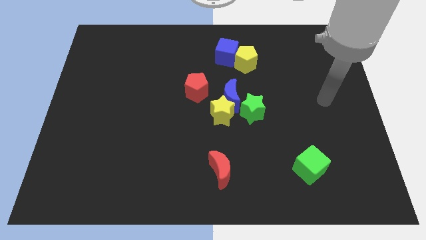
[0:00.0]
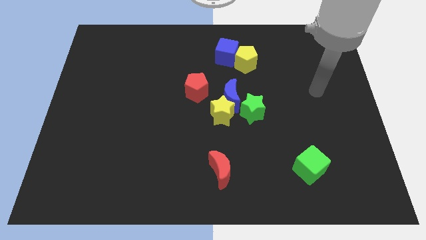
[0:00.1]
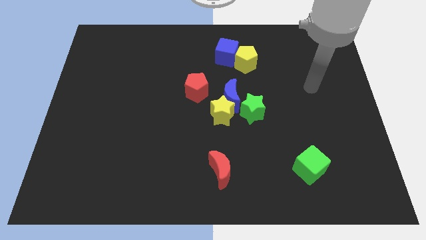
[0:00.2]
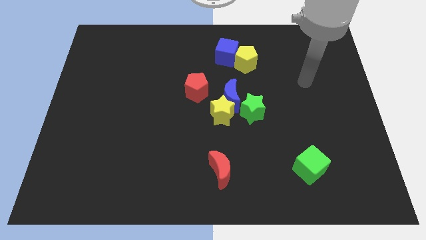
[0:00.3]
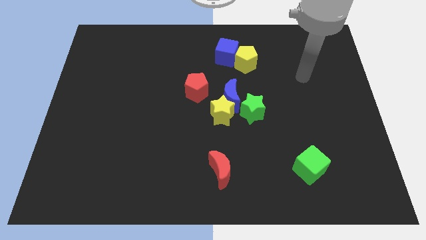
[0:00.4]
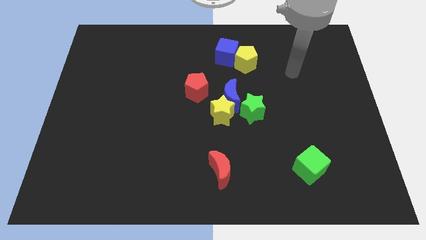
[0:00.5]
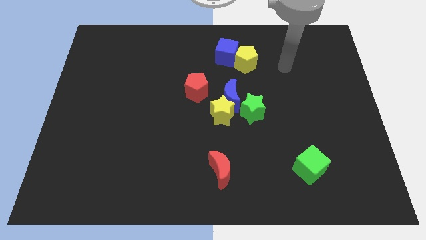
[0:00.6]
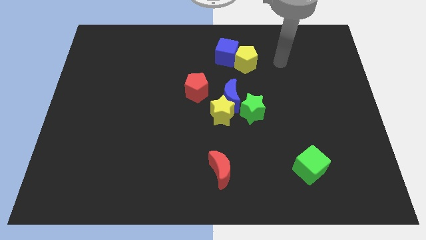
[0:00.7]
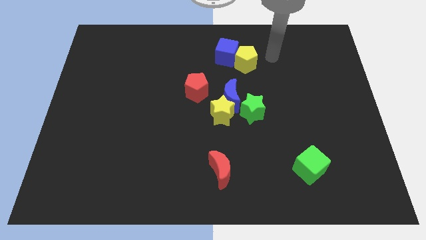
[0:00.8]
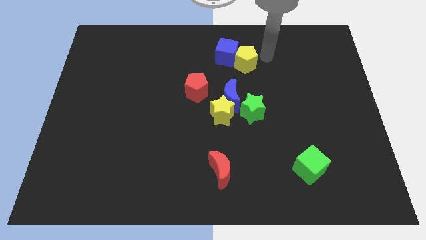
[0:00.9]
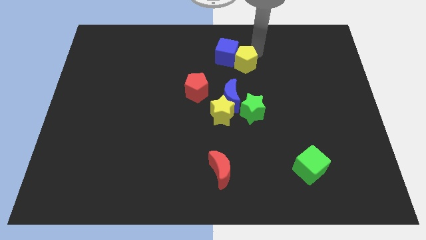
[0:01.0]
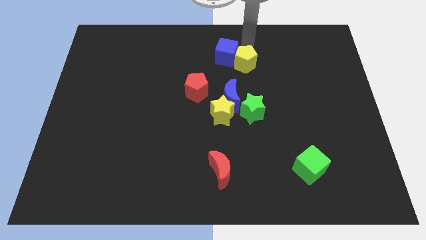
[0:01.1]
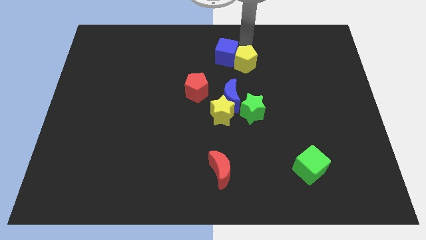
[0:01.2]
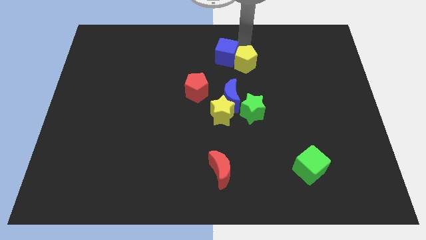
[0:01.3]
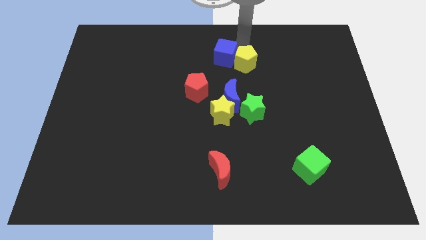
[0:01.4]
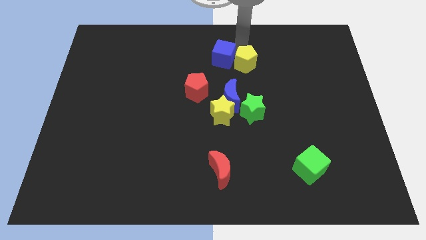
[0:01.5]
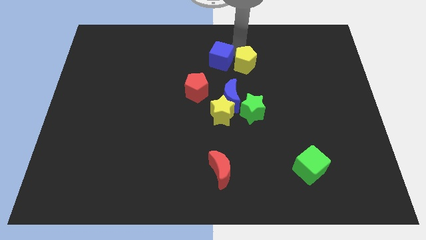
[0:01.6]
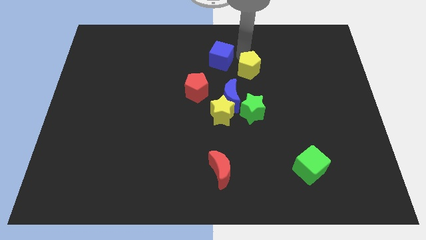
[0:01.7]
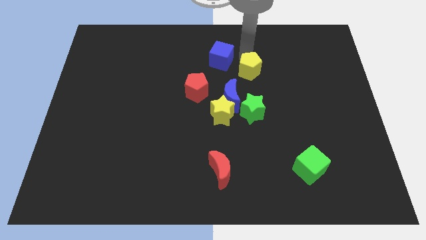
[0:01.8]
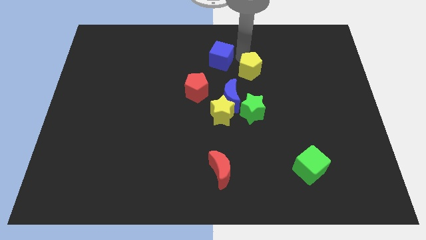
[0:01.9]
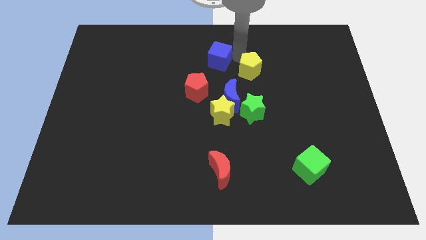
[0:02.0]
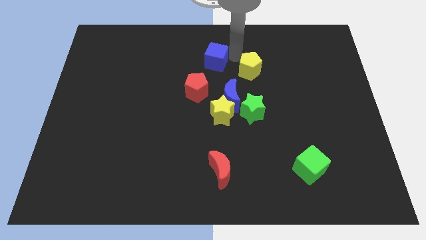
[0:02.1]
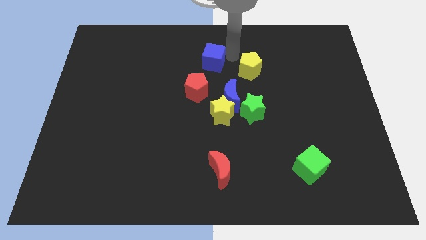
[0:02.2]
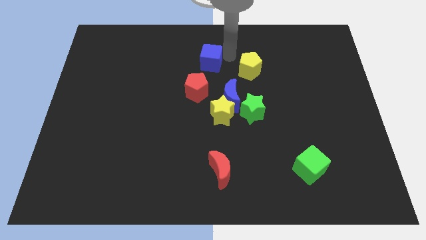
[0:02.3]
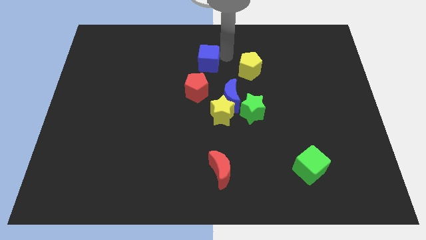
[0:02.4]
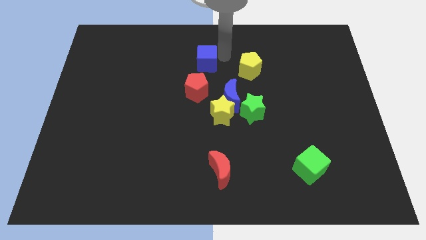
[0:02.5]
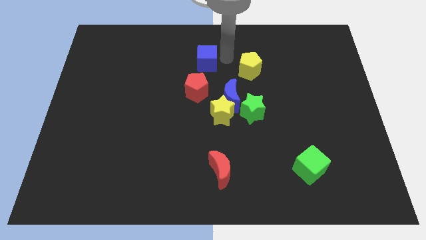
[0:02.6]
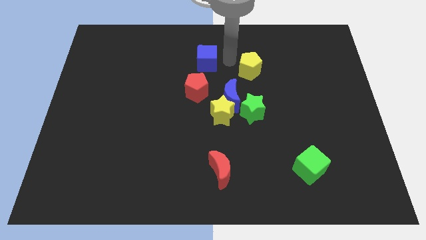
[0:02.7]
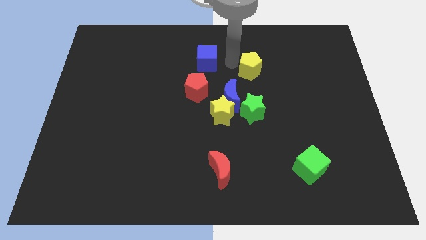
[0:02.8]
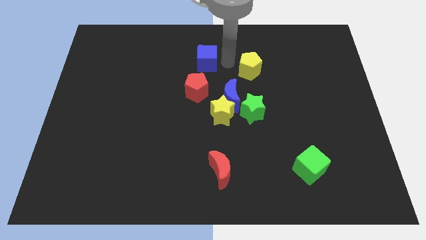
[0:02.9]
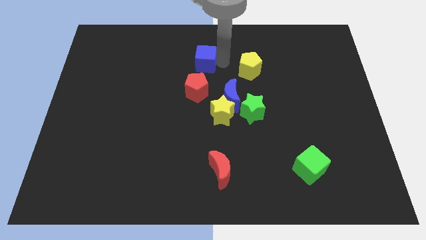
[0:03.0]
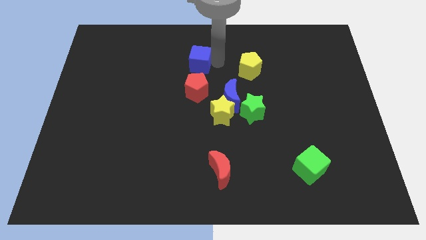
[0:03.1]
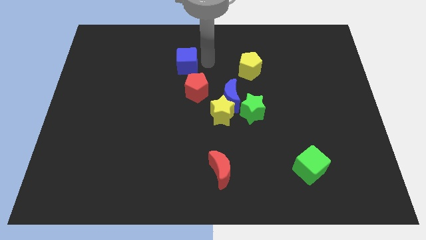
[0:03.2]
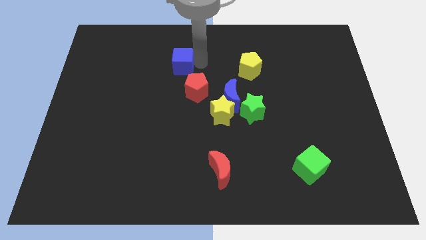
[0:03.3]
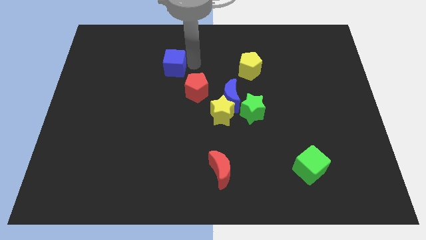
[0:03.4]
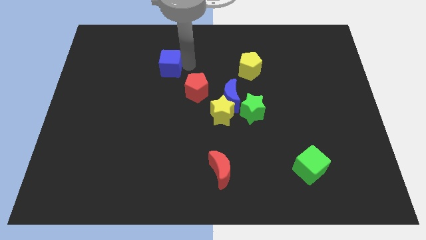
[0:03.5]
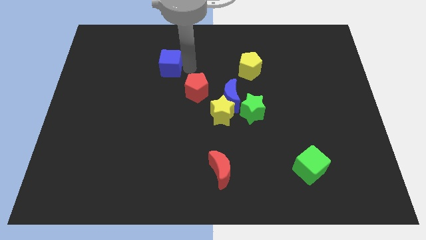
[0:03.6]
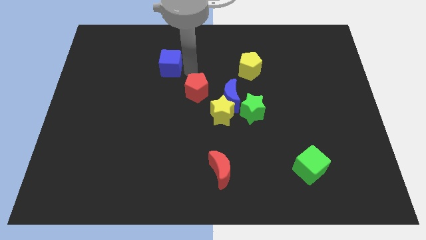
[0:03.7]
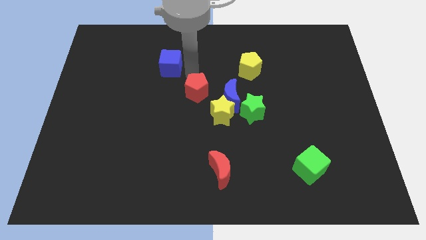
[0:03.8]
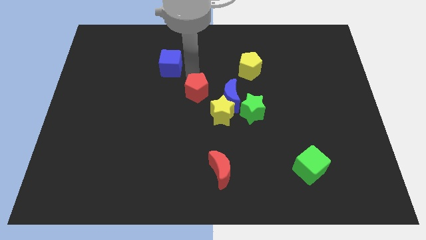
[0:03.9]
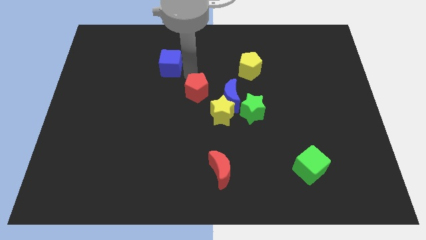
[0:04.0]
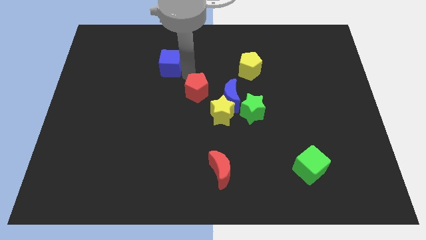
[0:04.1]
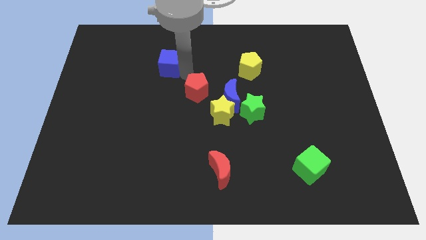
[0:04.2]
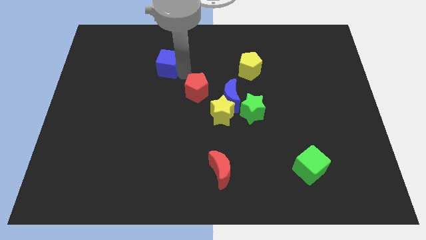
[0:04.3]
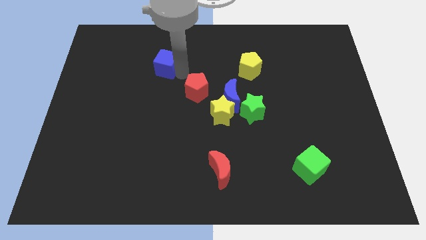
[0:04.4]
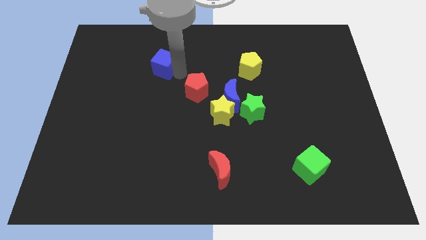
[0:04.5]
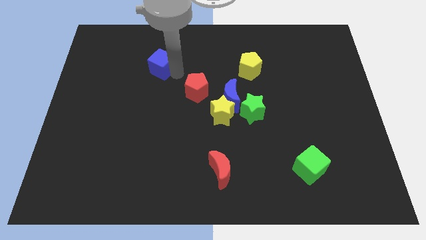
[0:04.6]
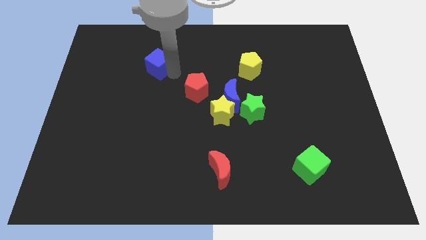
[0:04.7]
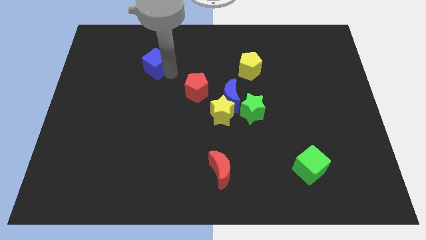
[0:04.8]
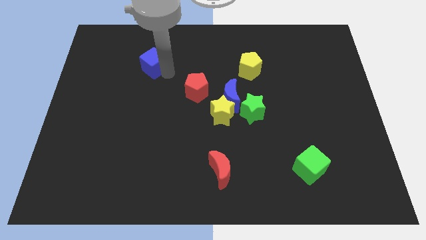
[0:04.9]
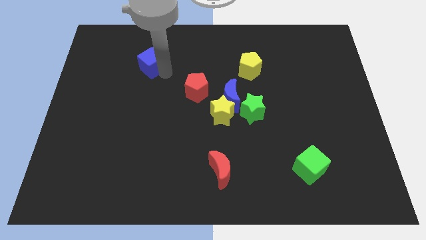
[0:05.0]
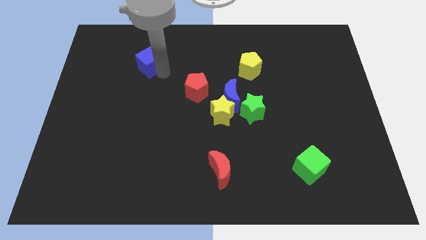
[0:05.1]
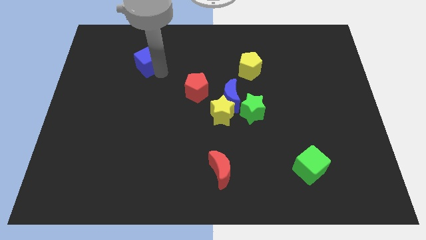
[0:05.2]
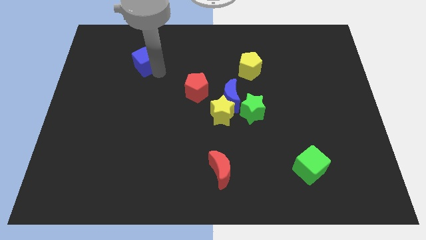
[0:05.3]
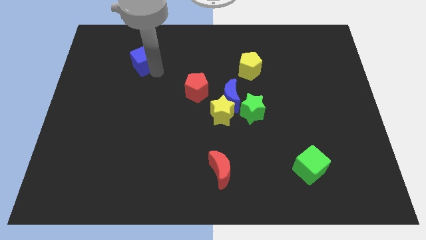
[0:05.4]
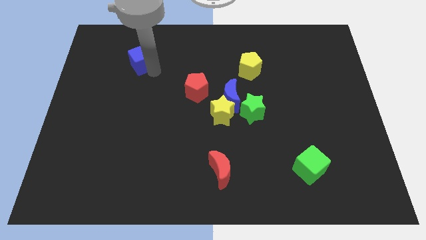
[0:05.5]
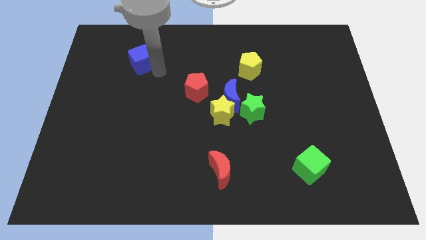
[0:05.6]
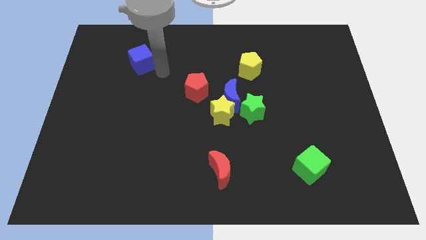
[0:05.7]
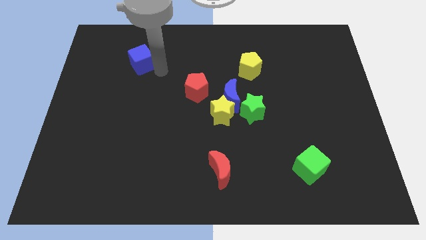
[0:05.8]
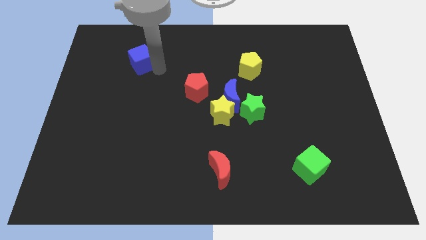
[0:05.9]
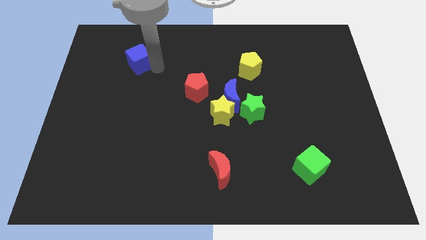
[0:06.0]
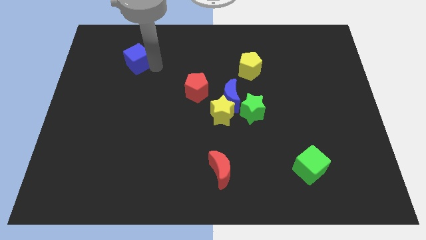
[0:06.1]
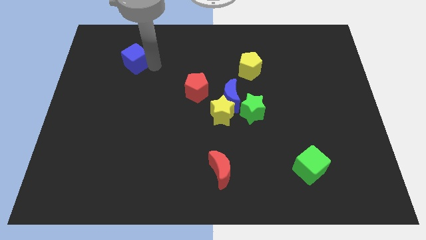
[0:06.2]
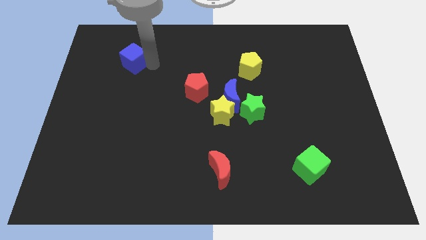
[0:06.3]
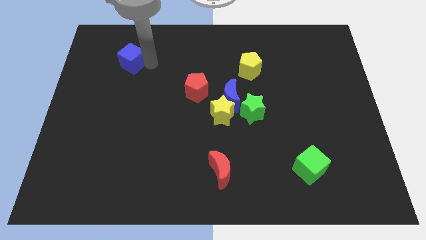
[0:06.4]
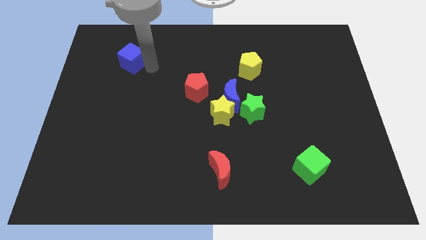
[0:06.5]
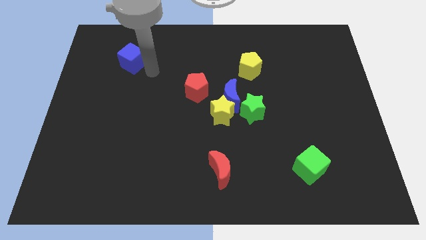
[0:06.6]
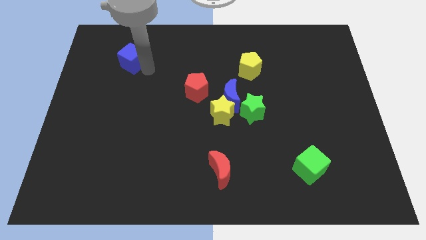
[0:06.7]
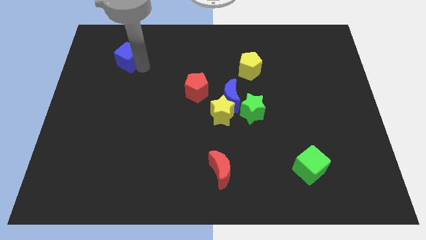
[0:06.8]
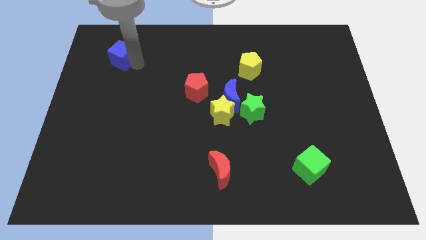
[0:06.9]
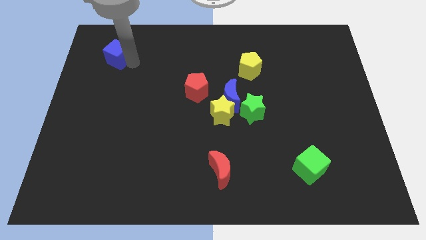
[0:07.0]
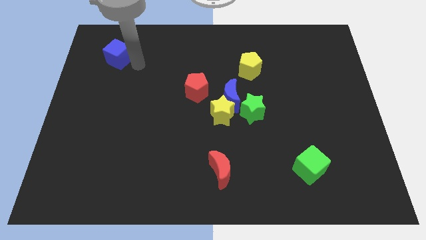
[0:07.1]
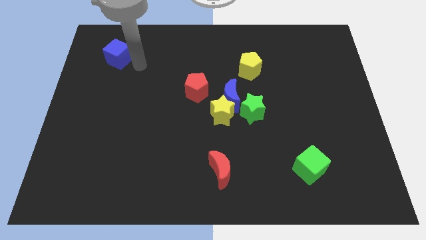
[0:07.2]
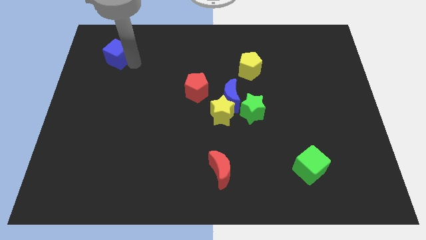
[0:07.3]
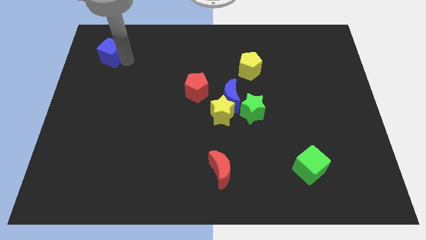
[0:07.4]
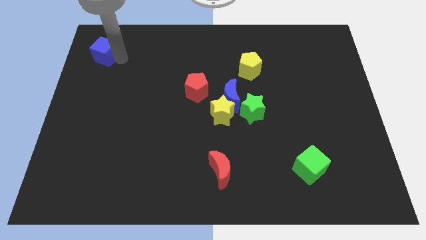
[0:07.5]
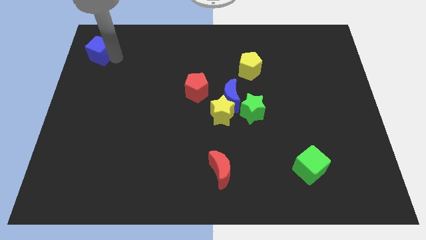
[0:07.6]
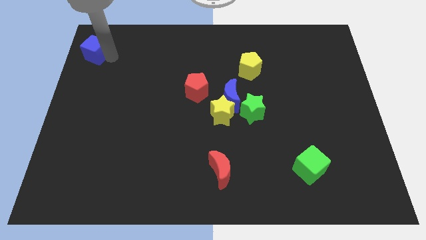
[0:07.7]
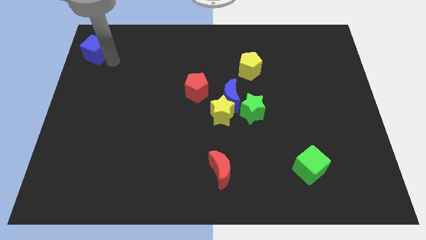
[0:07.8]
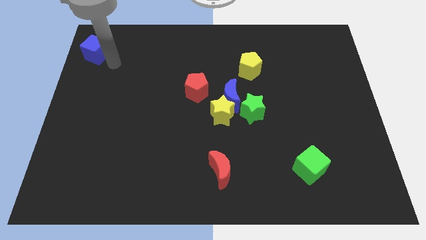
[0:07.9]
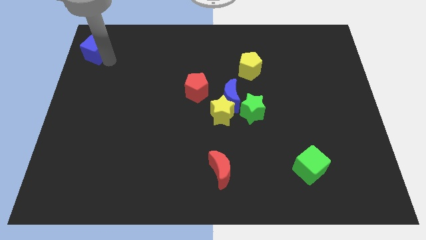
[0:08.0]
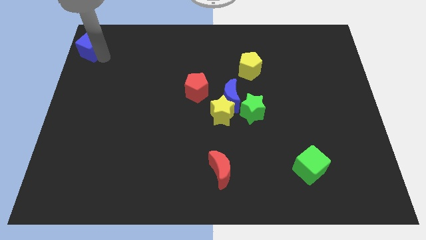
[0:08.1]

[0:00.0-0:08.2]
move the blue cube to the top left
